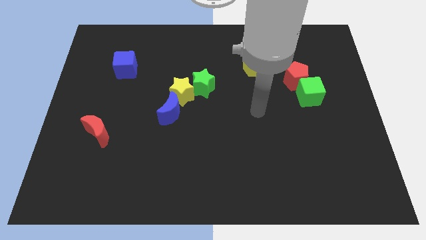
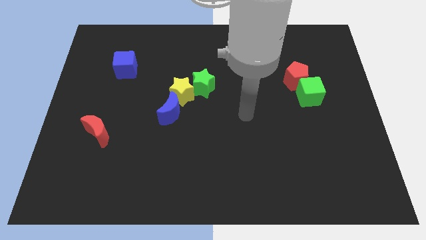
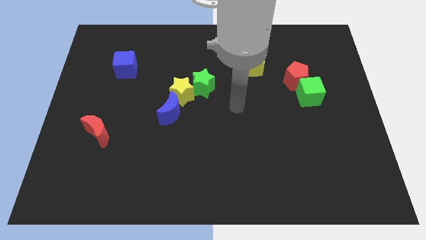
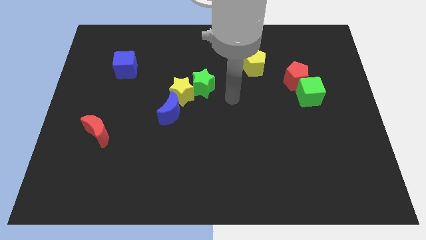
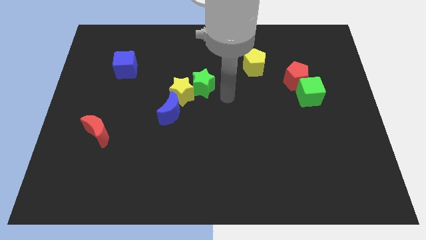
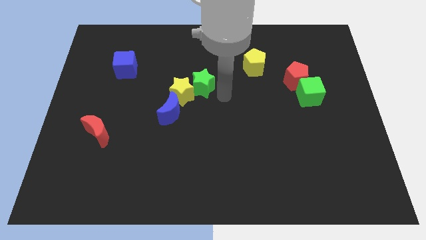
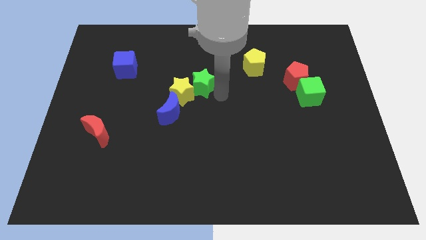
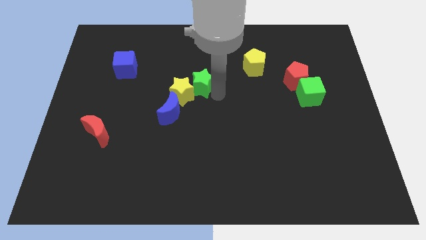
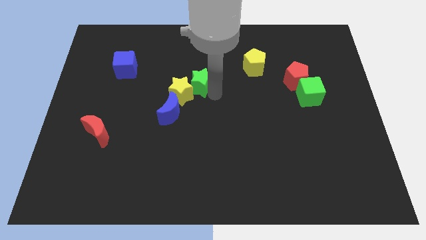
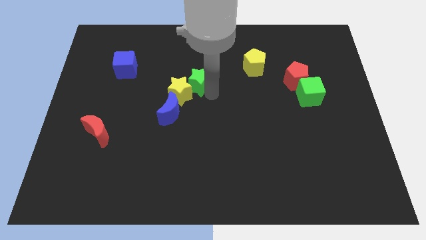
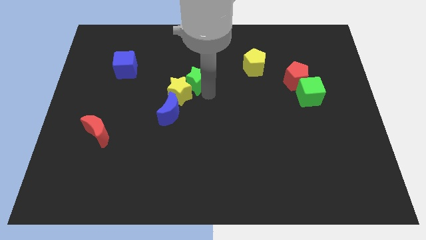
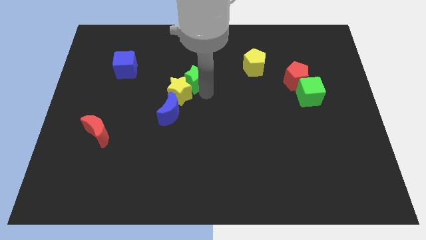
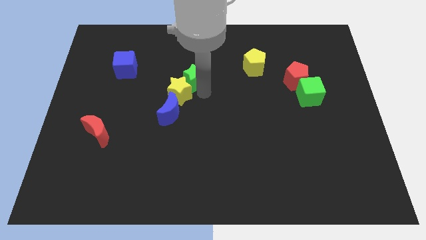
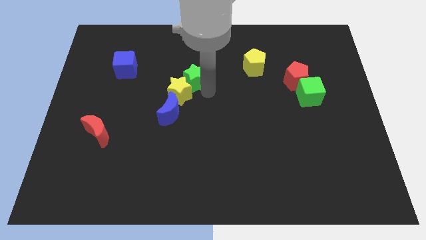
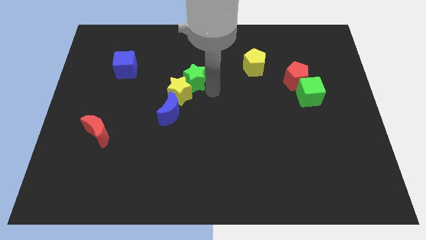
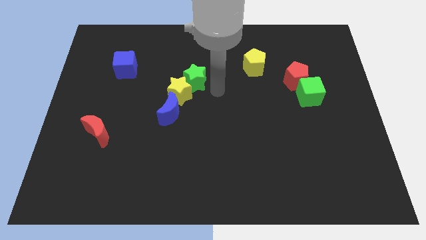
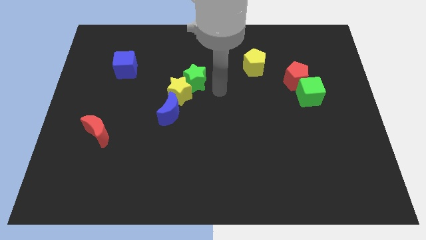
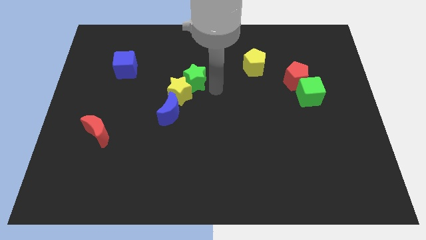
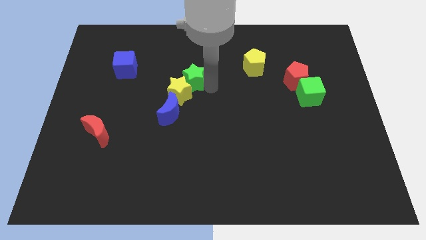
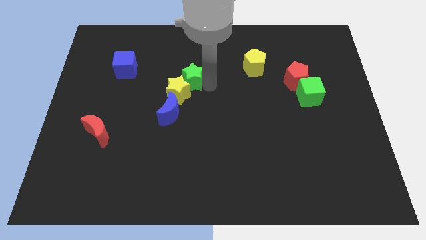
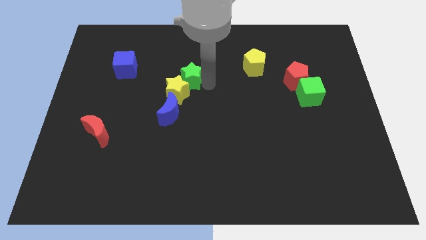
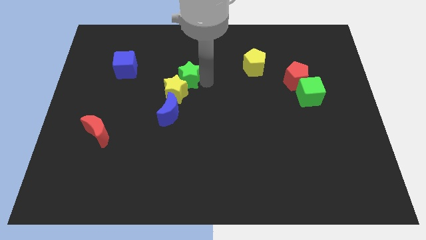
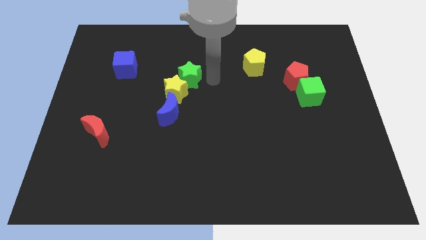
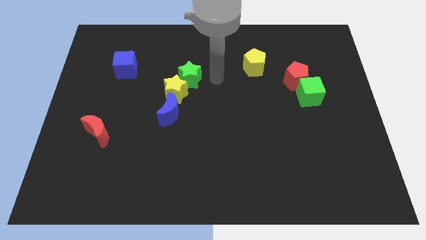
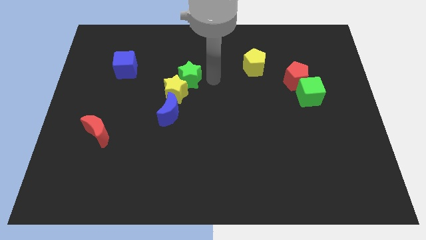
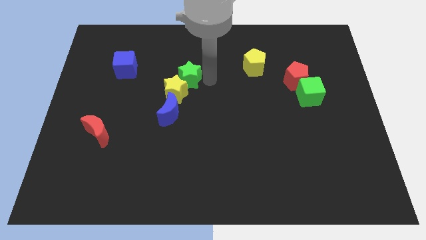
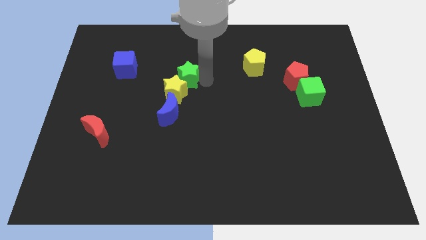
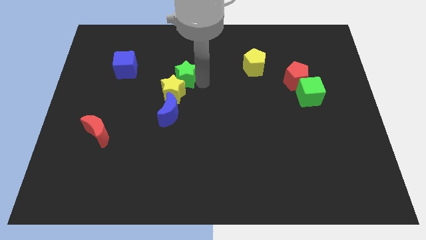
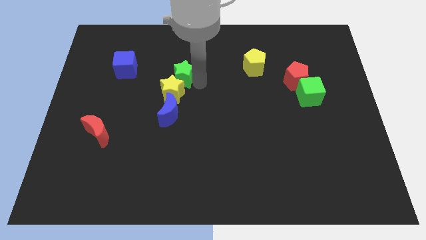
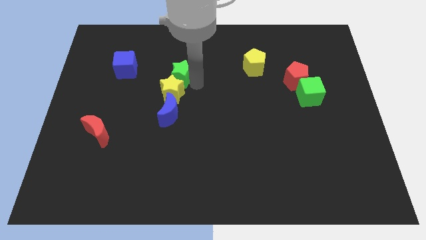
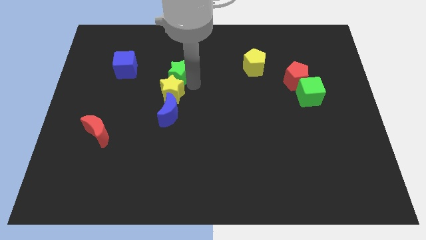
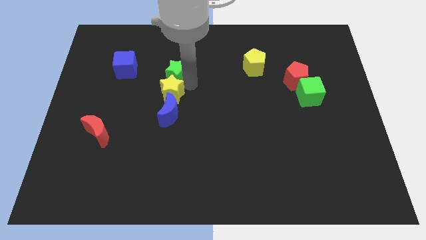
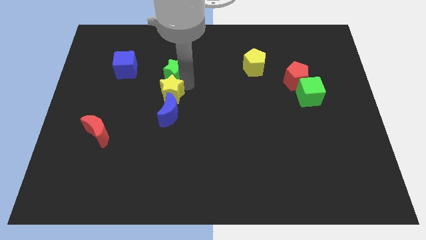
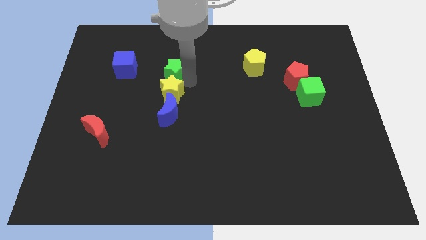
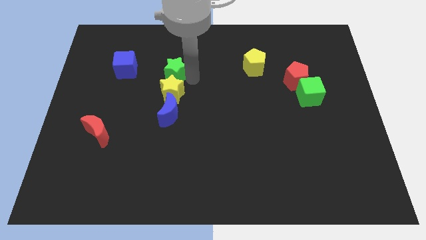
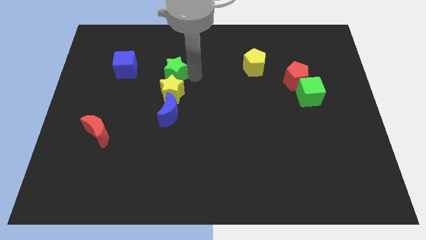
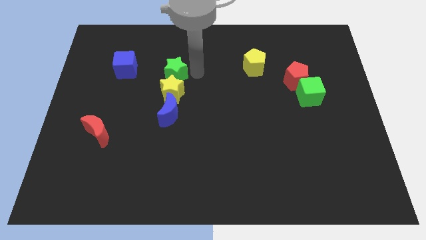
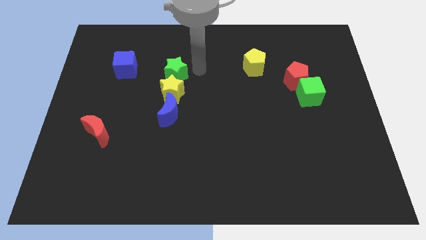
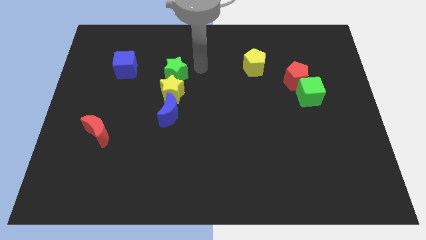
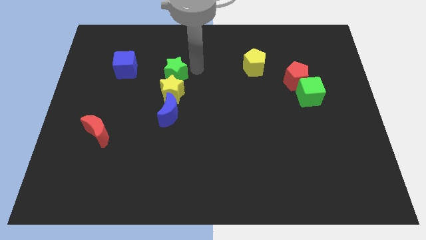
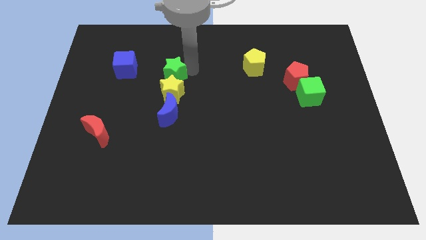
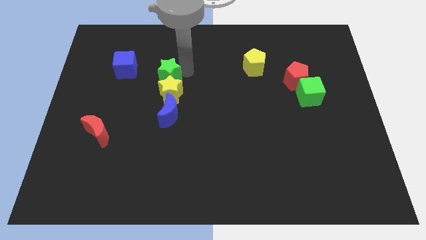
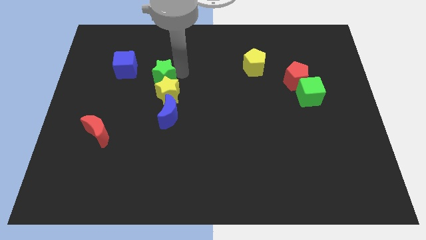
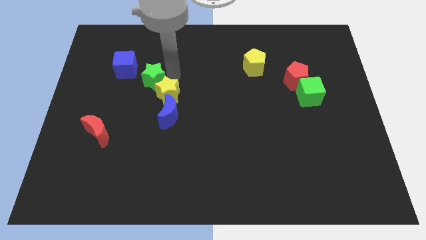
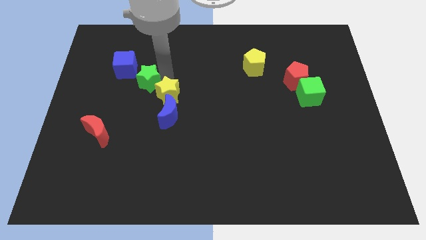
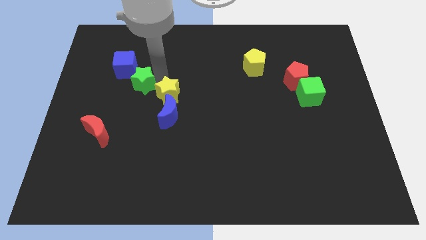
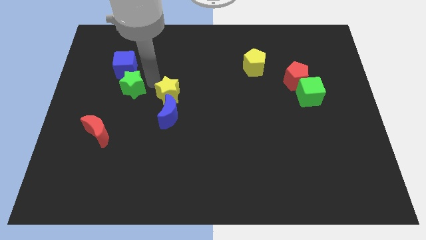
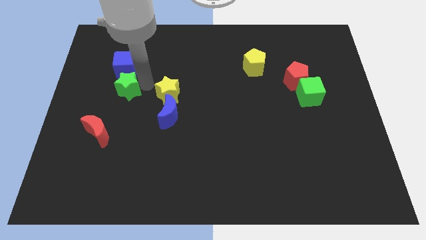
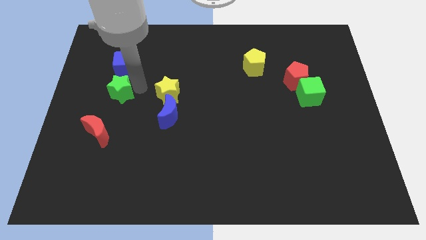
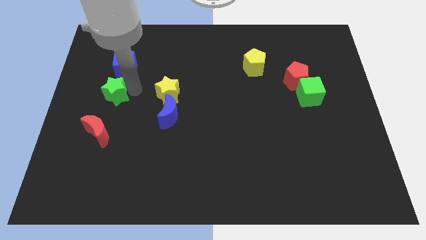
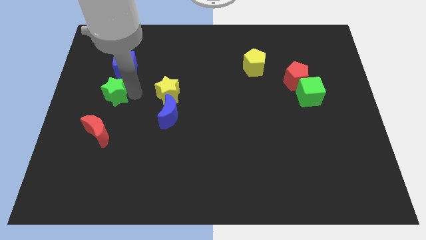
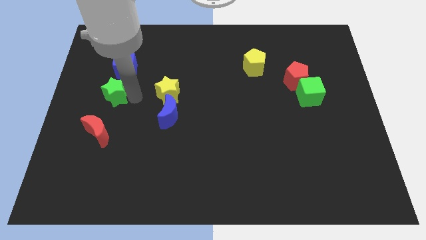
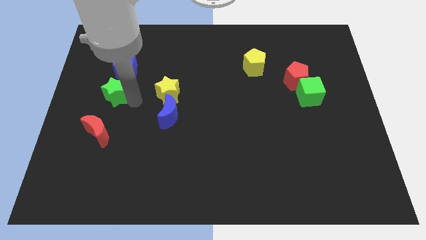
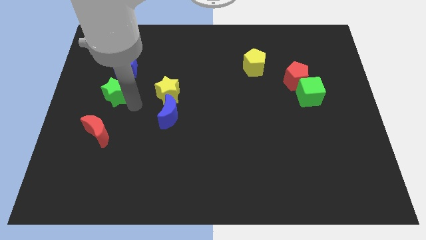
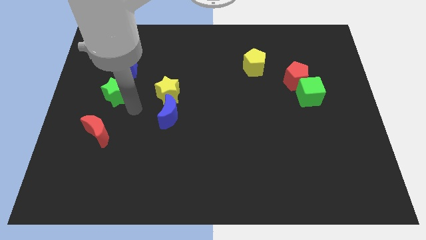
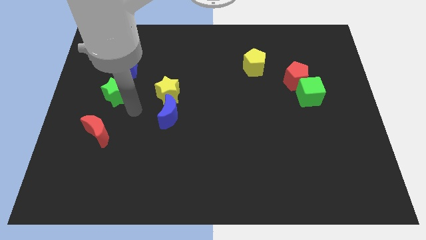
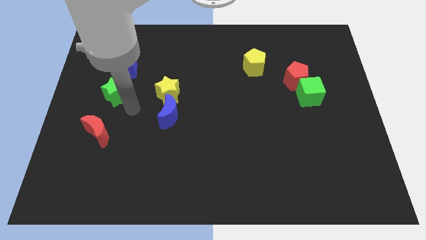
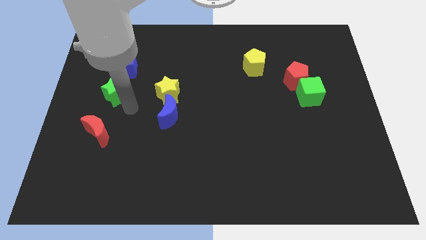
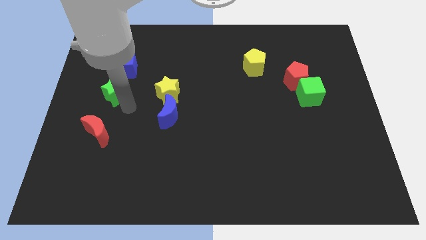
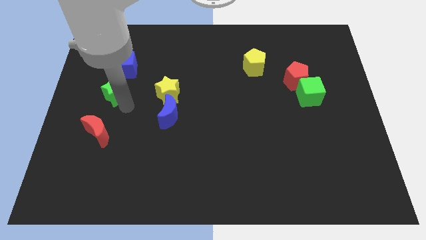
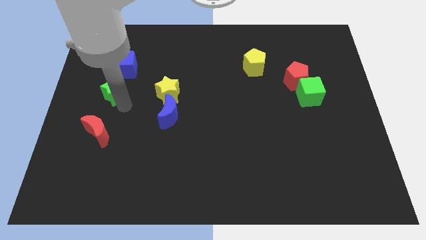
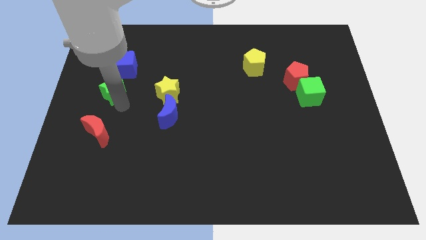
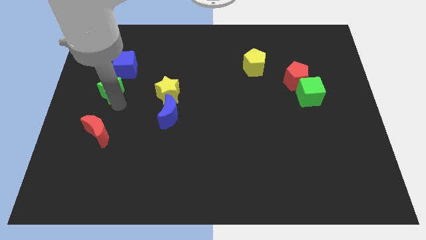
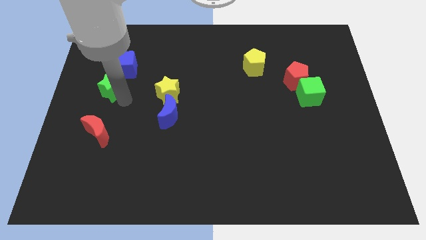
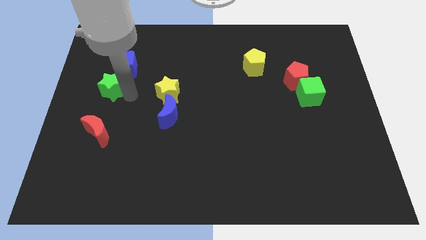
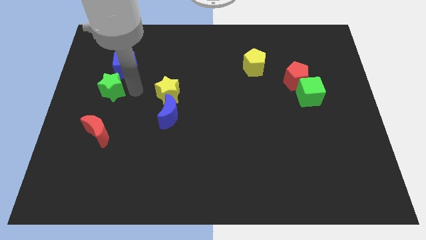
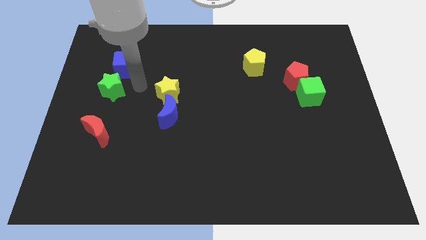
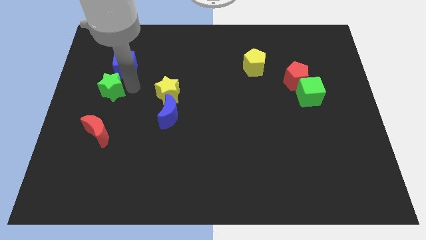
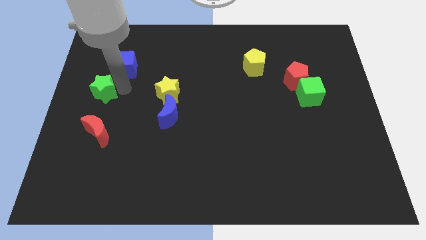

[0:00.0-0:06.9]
move the green star to the center left

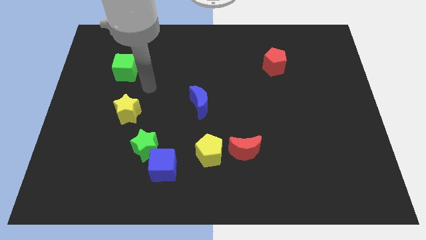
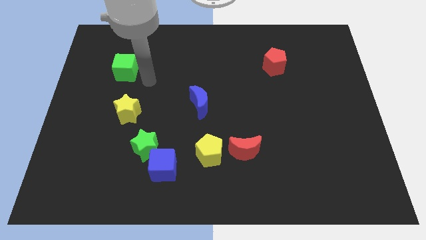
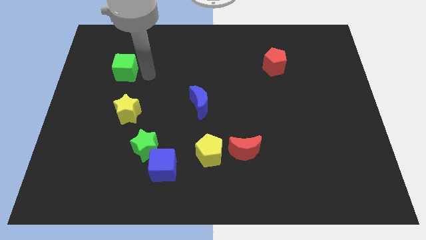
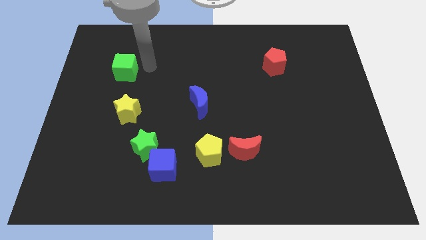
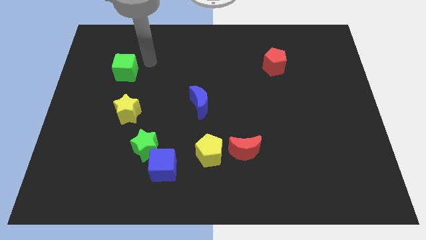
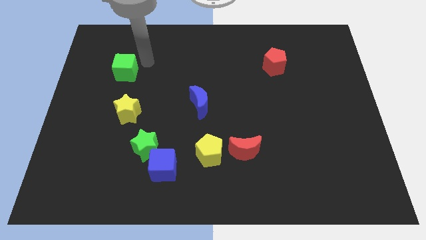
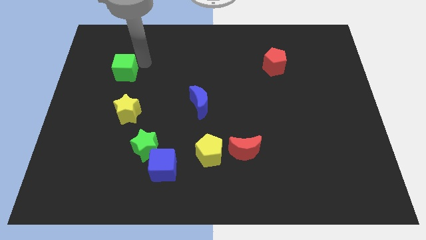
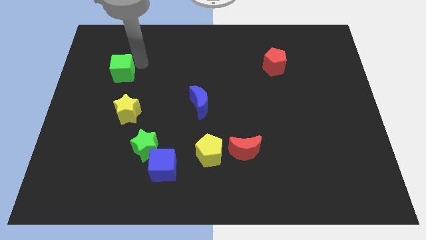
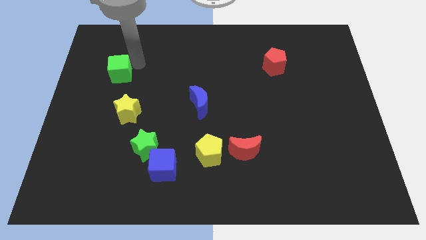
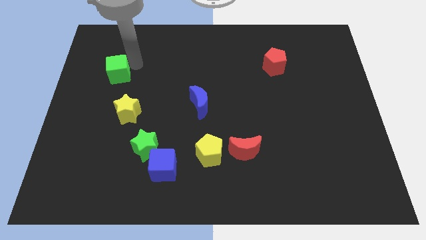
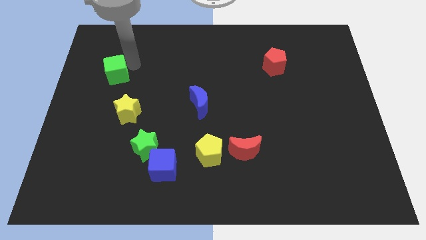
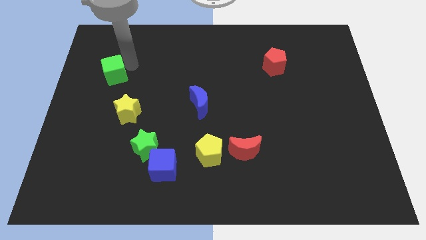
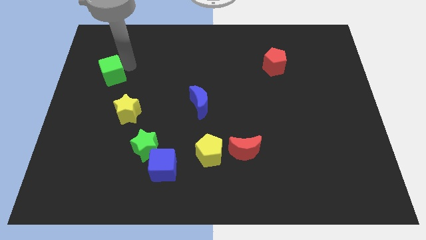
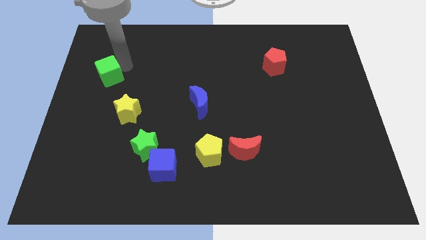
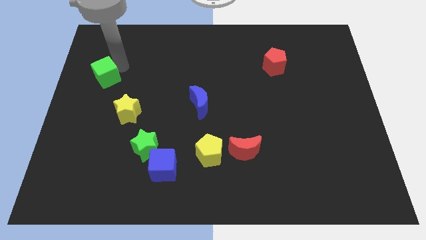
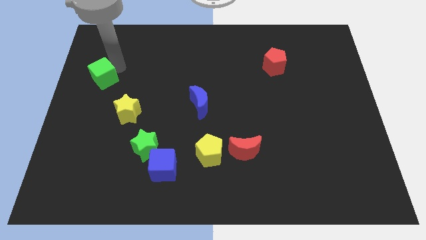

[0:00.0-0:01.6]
slide the green cube to the left side
